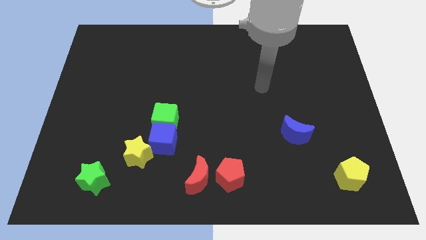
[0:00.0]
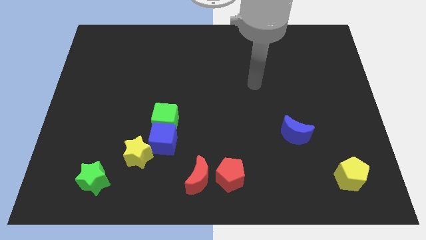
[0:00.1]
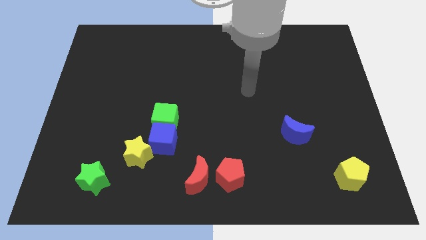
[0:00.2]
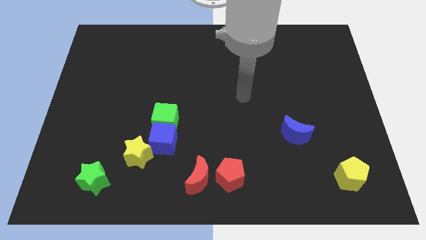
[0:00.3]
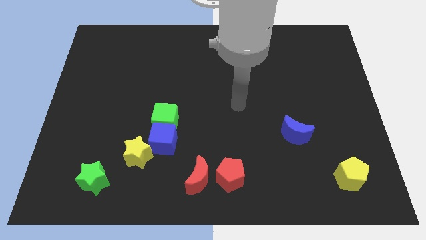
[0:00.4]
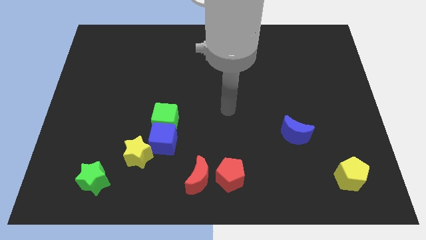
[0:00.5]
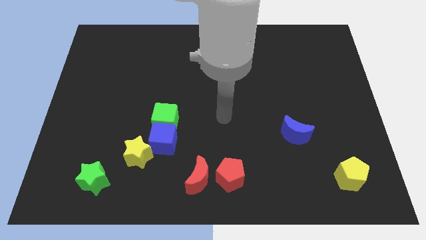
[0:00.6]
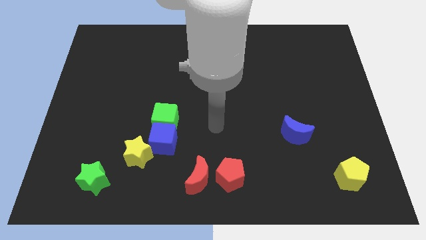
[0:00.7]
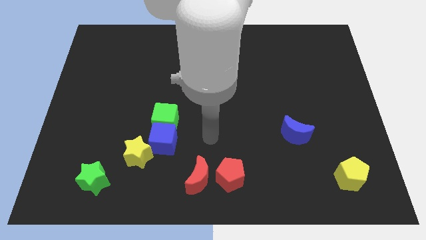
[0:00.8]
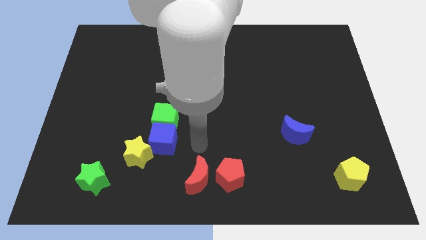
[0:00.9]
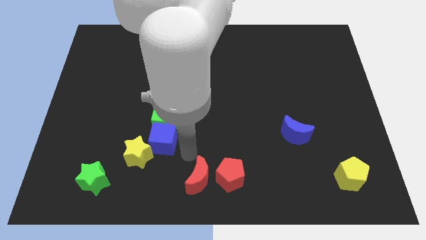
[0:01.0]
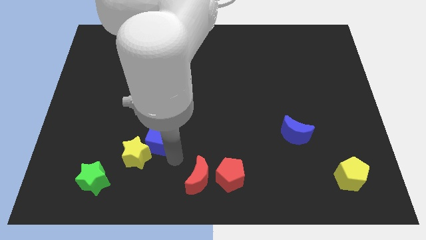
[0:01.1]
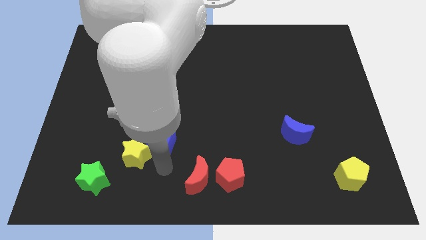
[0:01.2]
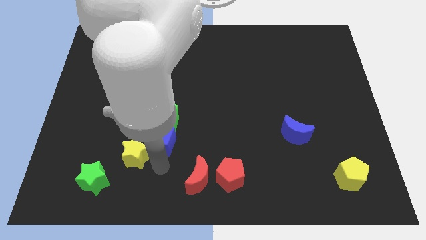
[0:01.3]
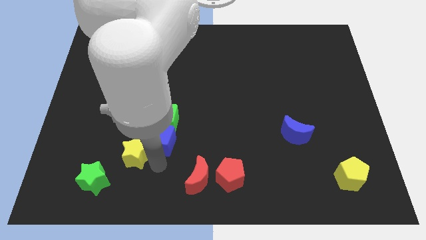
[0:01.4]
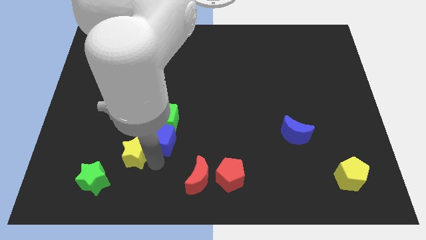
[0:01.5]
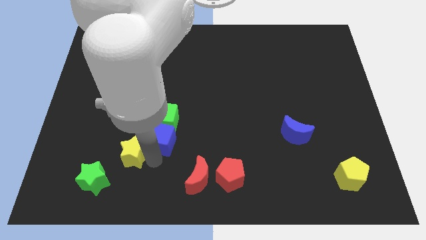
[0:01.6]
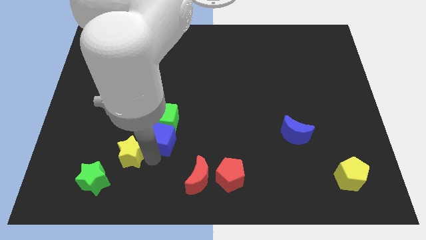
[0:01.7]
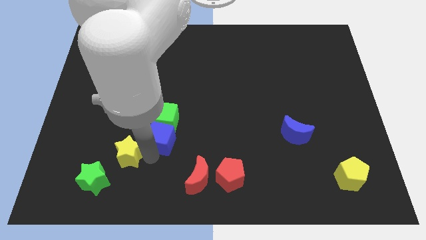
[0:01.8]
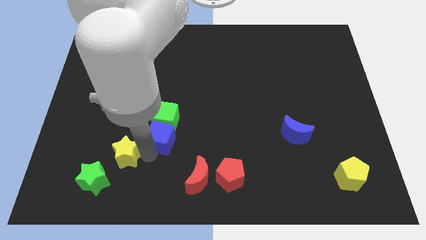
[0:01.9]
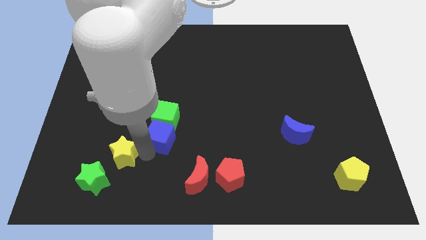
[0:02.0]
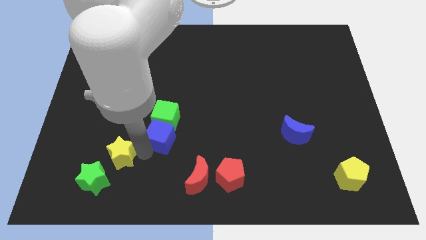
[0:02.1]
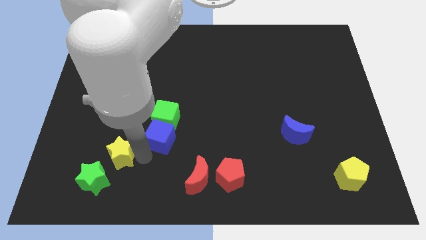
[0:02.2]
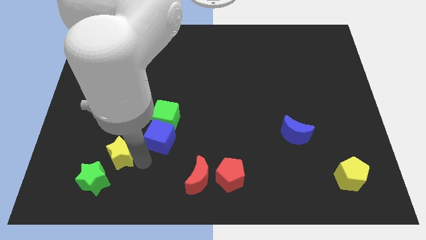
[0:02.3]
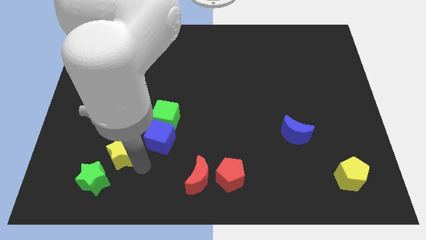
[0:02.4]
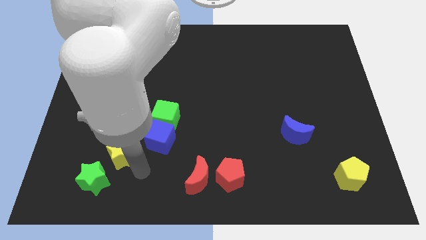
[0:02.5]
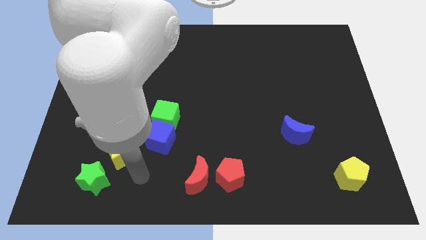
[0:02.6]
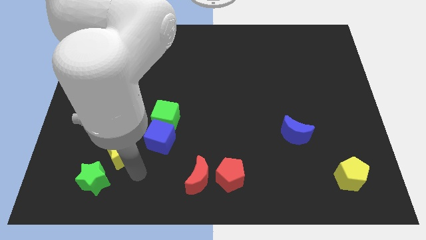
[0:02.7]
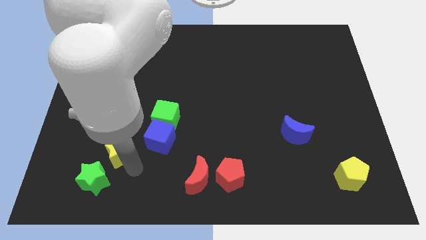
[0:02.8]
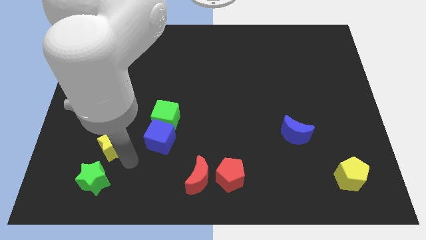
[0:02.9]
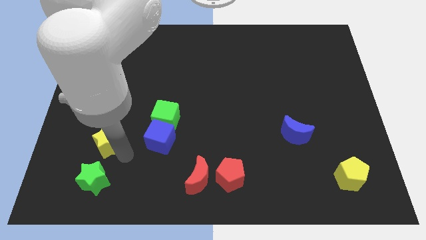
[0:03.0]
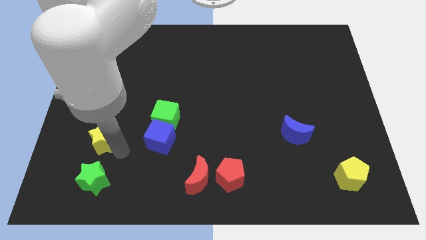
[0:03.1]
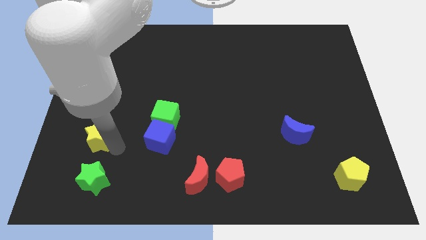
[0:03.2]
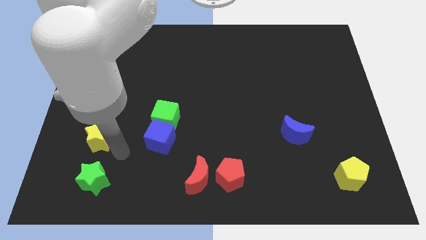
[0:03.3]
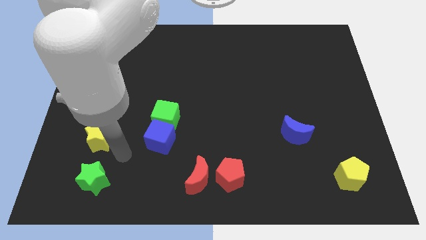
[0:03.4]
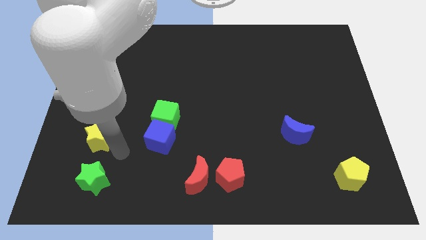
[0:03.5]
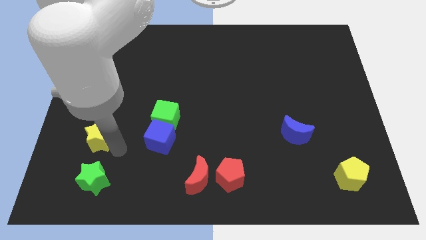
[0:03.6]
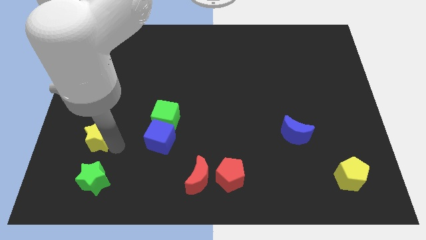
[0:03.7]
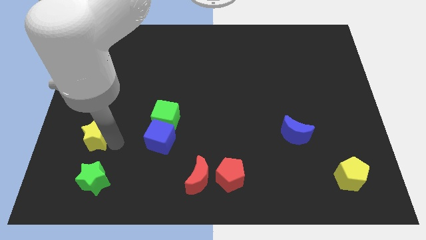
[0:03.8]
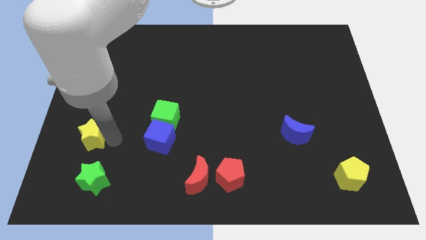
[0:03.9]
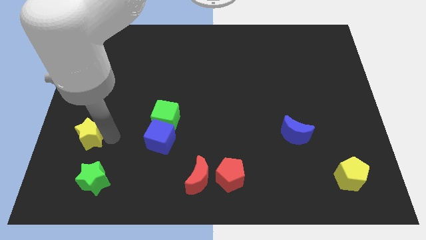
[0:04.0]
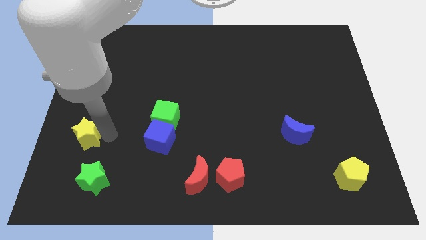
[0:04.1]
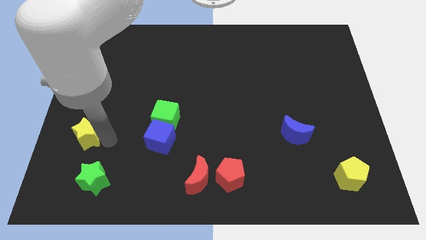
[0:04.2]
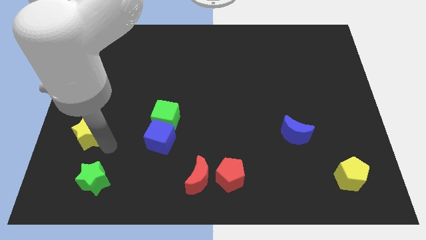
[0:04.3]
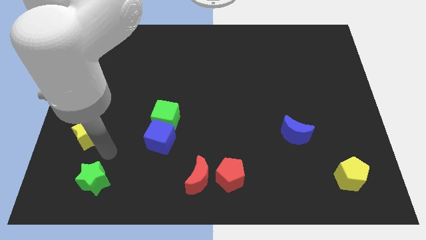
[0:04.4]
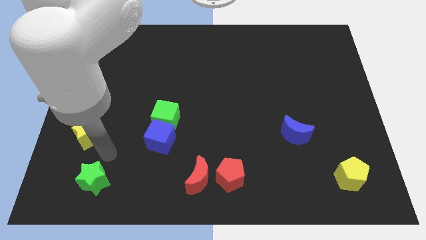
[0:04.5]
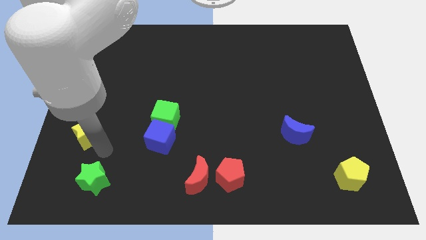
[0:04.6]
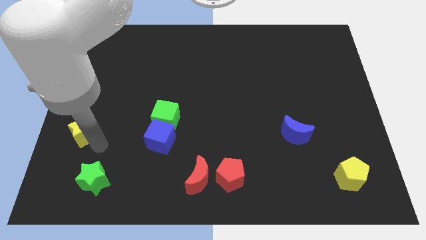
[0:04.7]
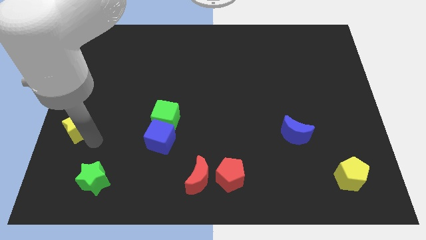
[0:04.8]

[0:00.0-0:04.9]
put the yellow star to the left side of the board

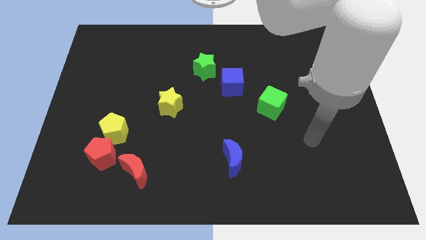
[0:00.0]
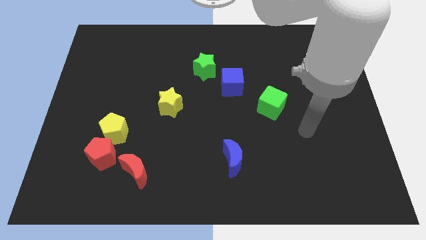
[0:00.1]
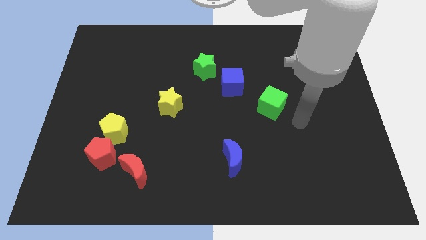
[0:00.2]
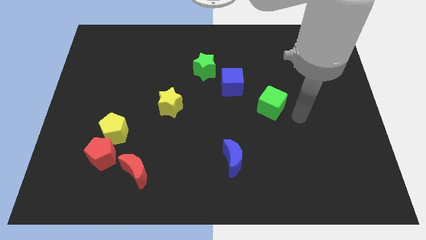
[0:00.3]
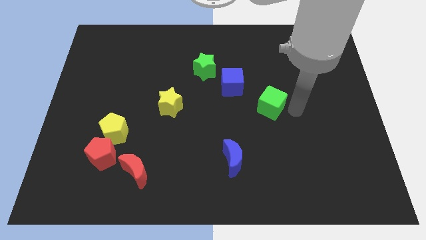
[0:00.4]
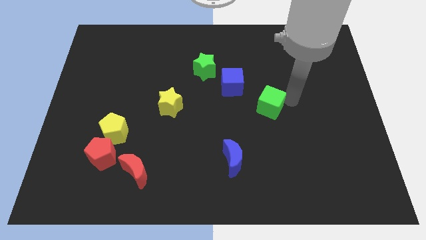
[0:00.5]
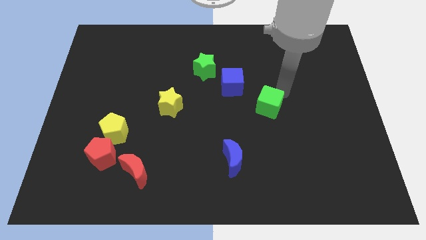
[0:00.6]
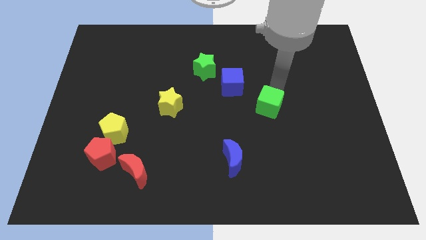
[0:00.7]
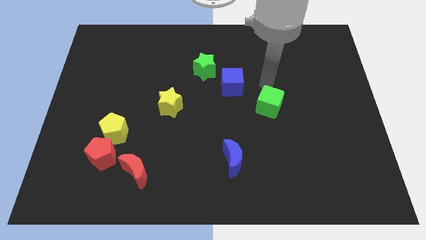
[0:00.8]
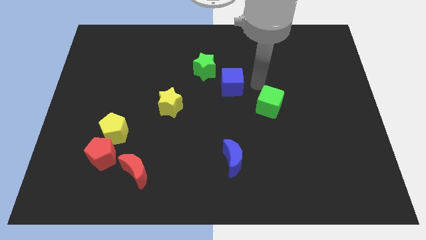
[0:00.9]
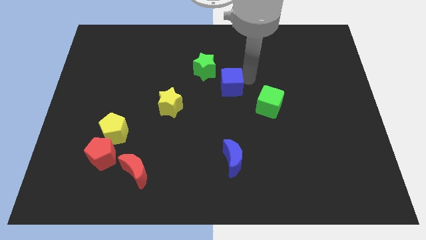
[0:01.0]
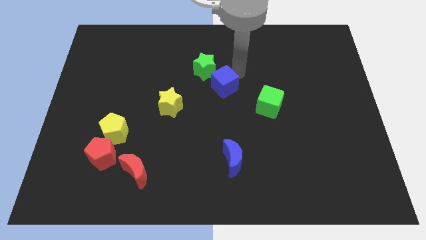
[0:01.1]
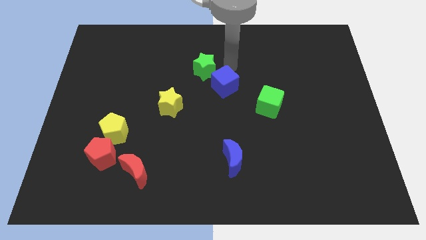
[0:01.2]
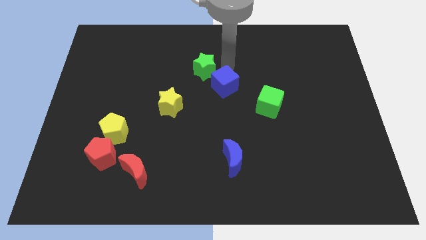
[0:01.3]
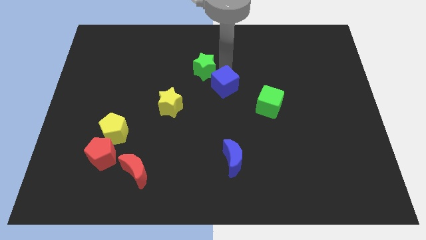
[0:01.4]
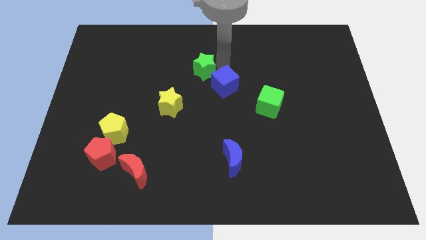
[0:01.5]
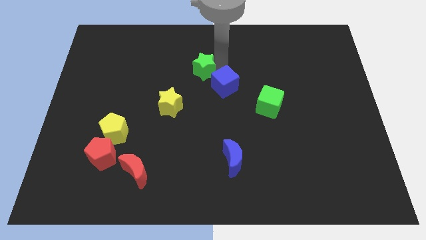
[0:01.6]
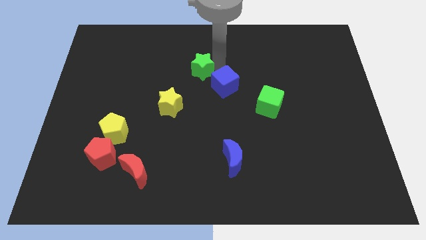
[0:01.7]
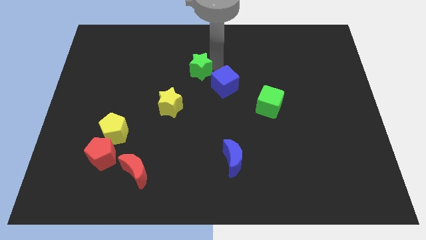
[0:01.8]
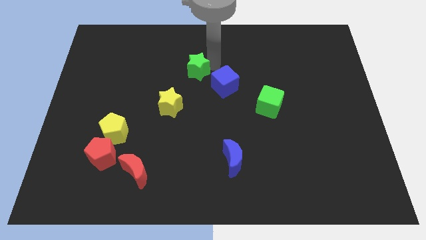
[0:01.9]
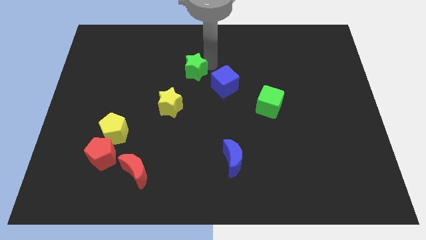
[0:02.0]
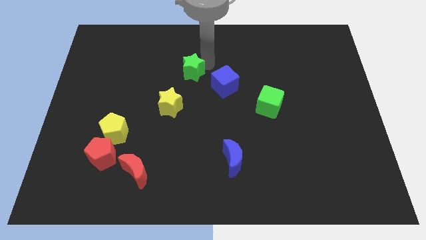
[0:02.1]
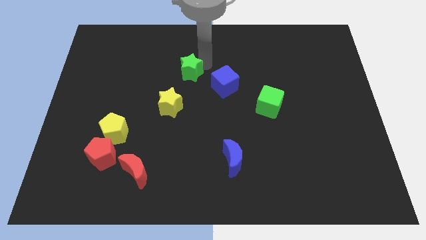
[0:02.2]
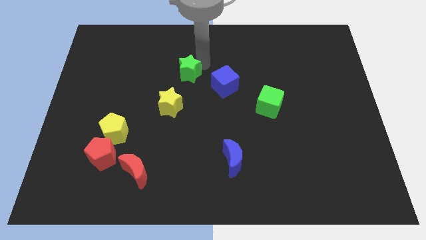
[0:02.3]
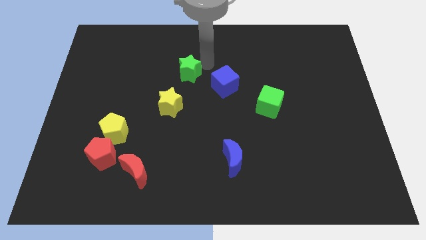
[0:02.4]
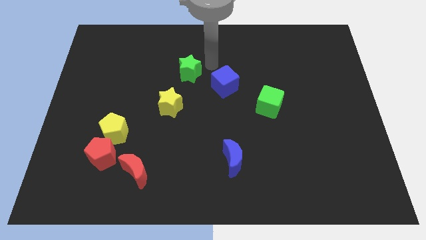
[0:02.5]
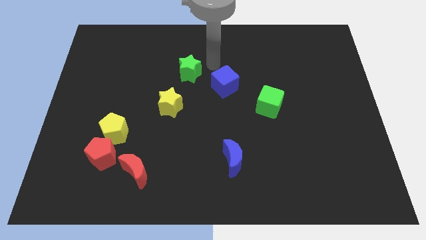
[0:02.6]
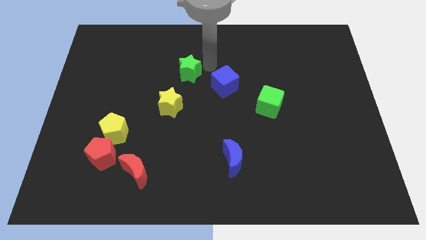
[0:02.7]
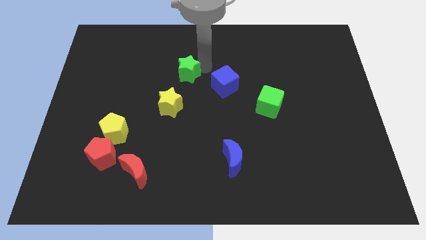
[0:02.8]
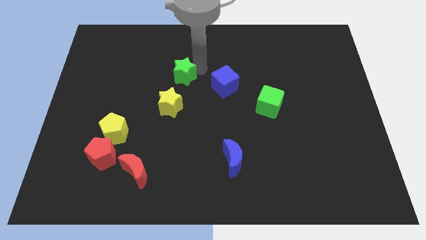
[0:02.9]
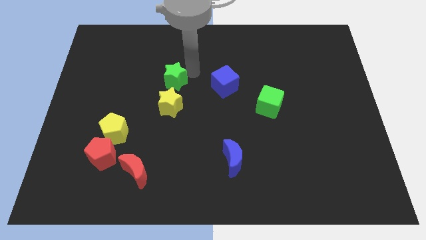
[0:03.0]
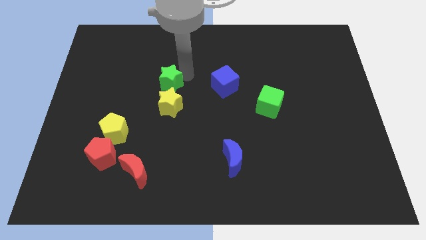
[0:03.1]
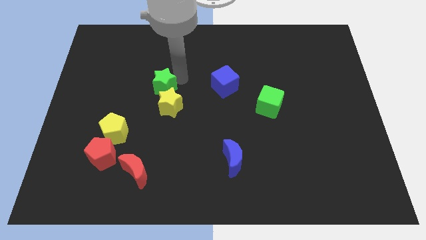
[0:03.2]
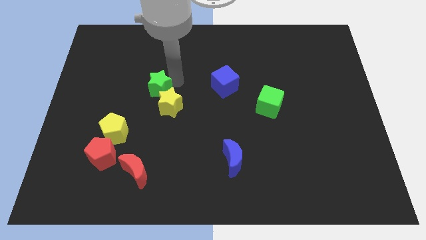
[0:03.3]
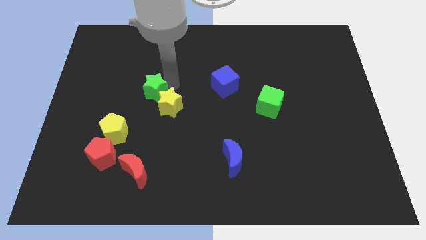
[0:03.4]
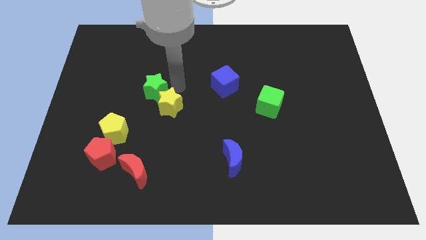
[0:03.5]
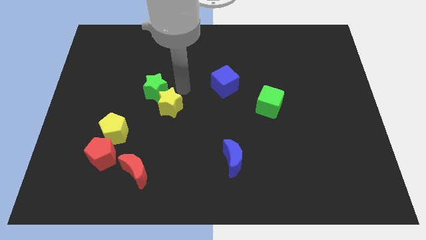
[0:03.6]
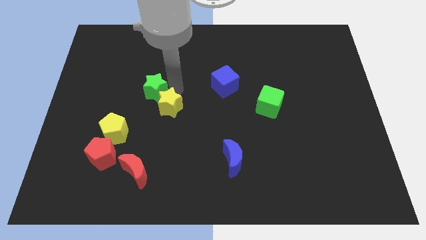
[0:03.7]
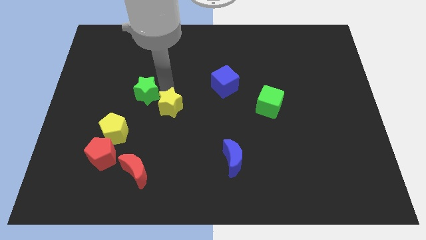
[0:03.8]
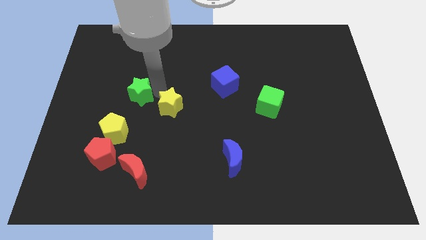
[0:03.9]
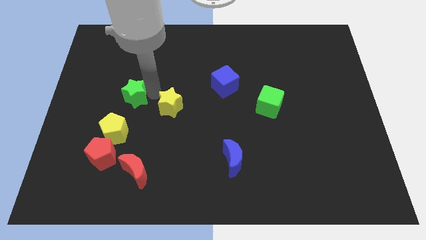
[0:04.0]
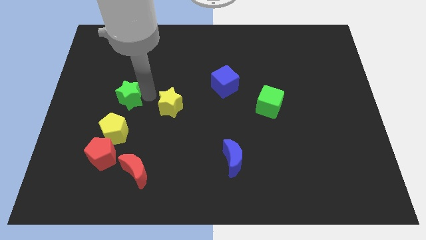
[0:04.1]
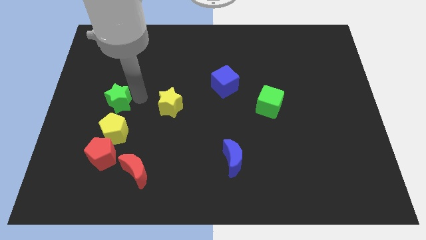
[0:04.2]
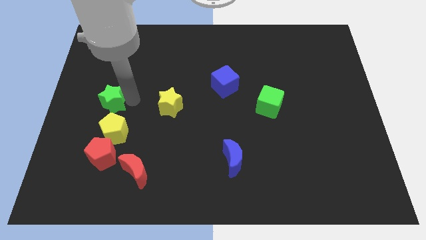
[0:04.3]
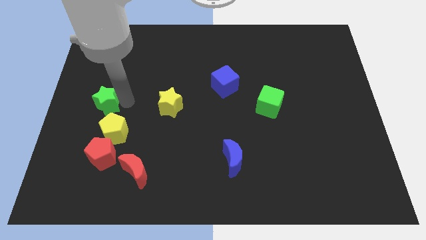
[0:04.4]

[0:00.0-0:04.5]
move the green star to the left side of the board
